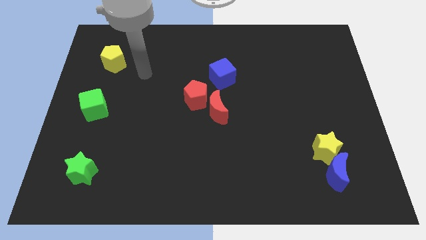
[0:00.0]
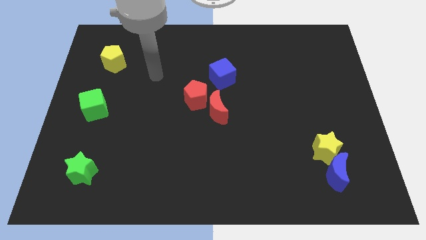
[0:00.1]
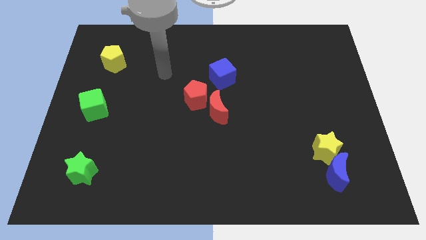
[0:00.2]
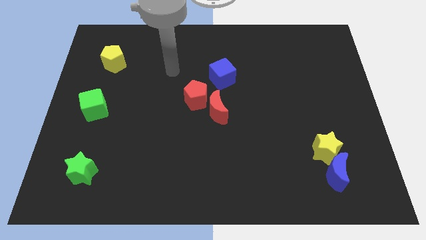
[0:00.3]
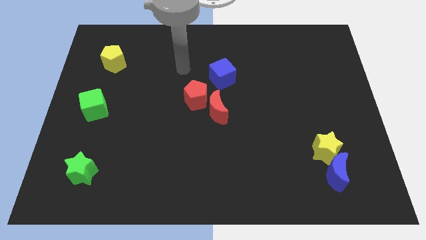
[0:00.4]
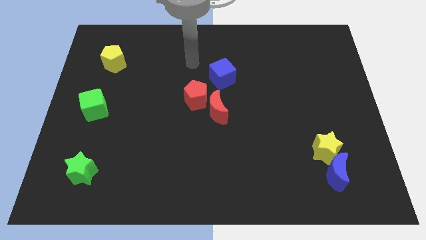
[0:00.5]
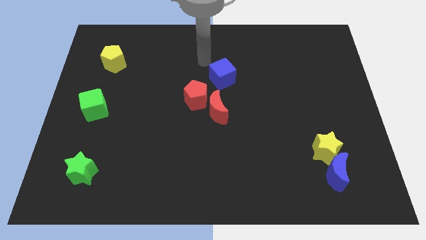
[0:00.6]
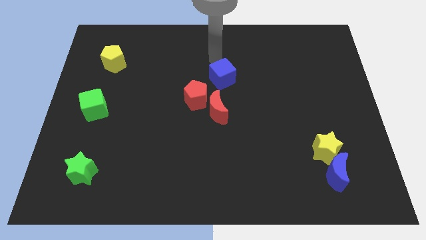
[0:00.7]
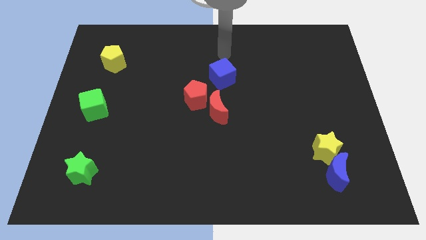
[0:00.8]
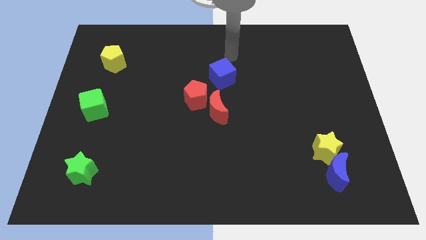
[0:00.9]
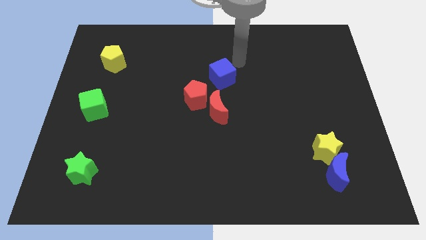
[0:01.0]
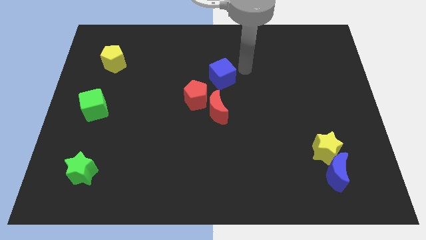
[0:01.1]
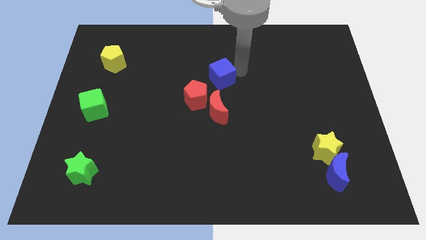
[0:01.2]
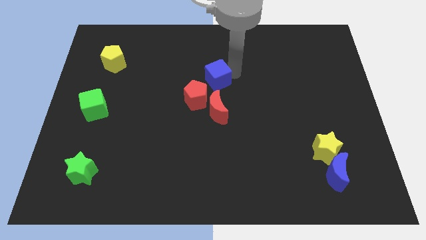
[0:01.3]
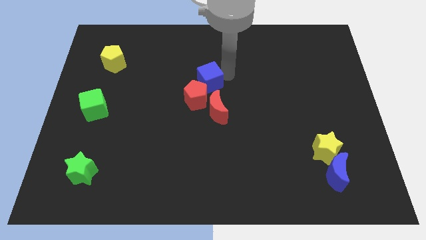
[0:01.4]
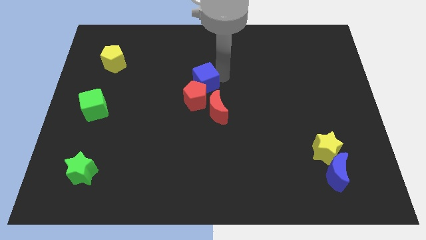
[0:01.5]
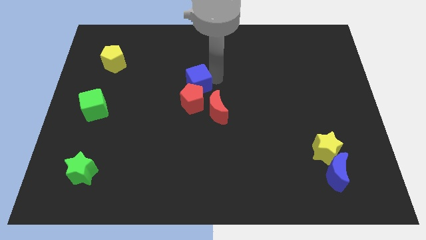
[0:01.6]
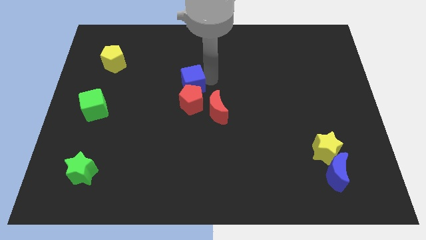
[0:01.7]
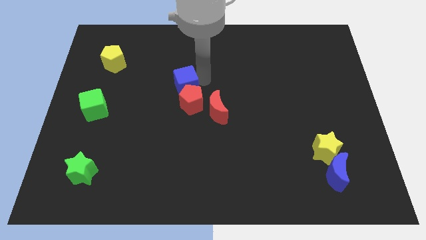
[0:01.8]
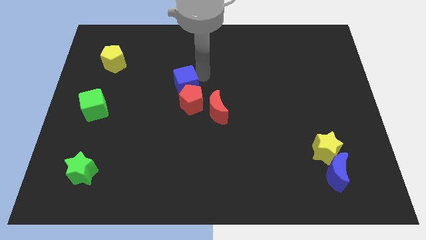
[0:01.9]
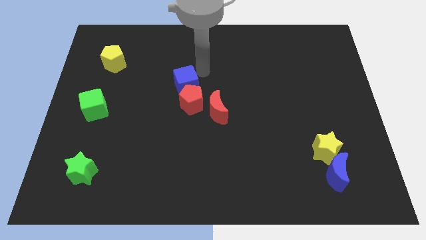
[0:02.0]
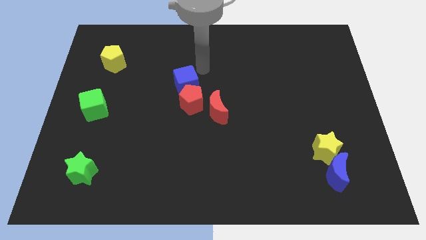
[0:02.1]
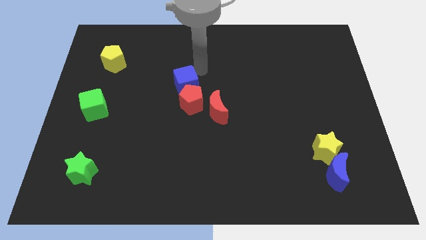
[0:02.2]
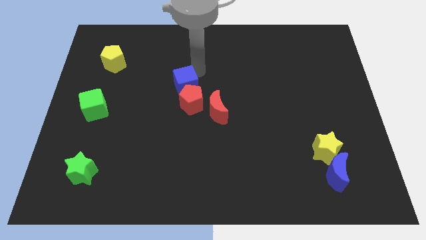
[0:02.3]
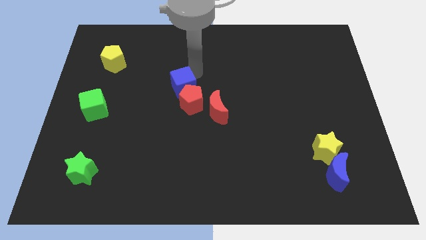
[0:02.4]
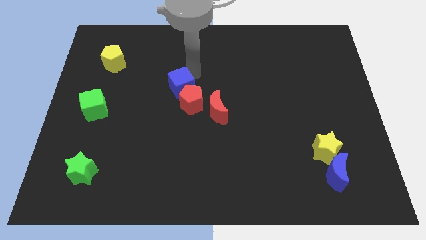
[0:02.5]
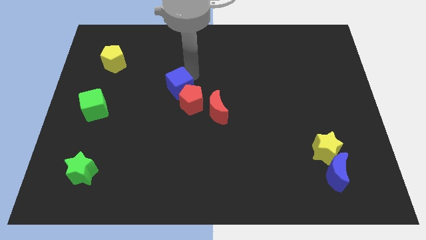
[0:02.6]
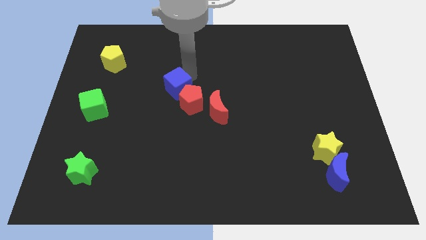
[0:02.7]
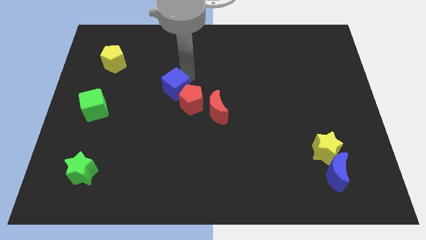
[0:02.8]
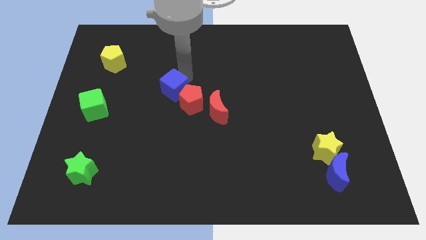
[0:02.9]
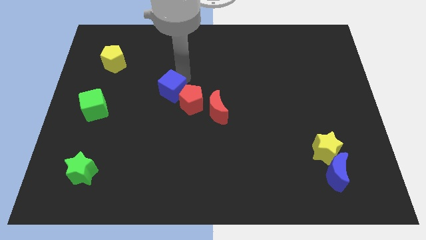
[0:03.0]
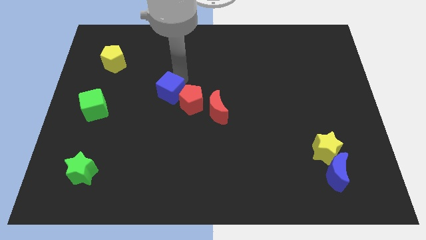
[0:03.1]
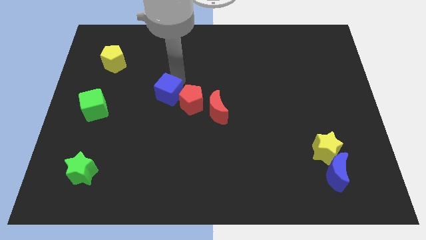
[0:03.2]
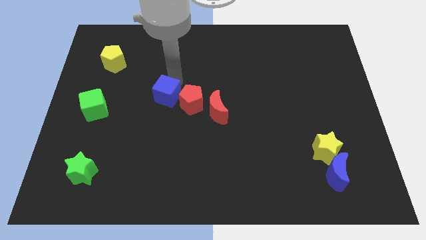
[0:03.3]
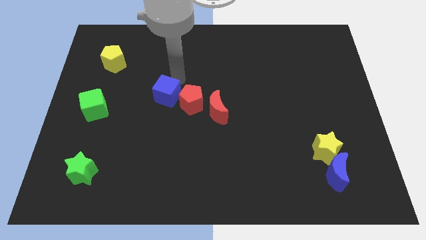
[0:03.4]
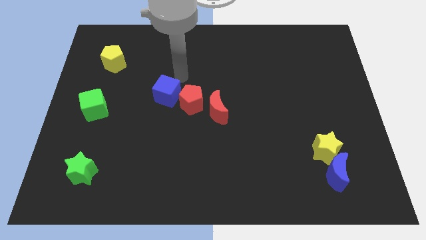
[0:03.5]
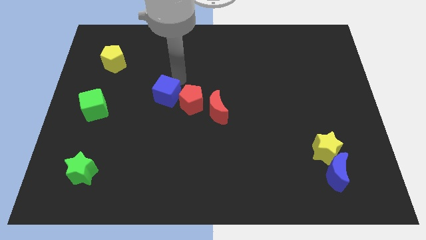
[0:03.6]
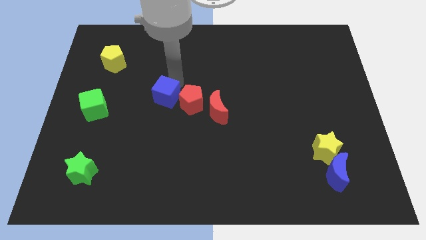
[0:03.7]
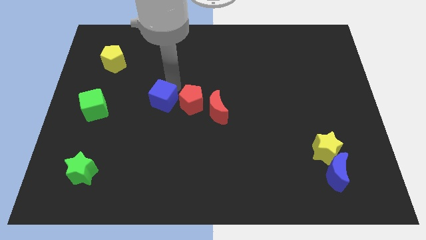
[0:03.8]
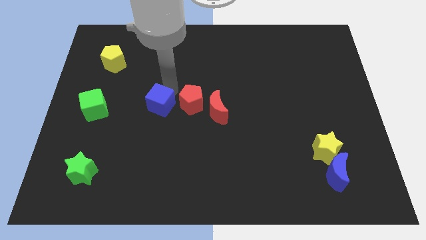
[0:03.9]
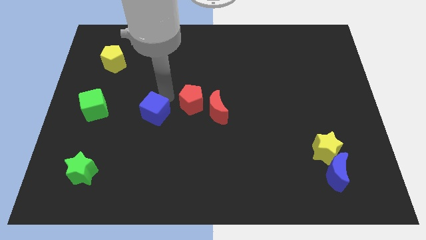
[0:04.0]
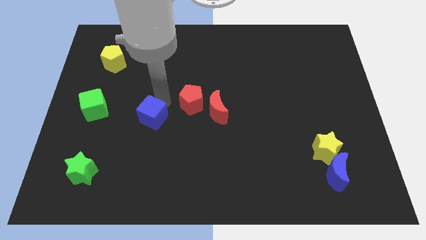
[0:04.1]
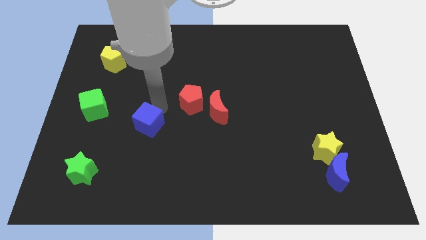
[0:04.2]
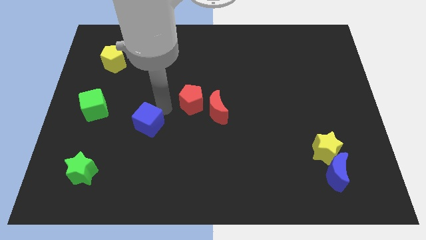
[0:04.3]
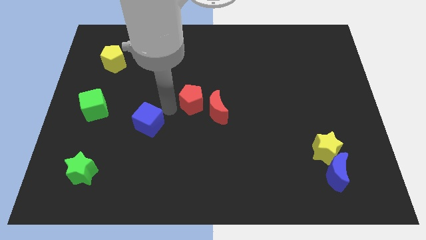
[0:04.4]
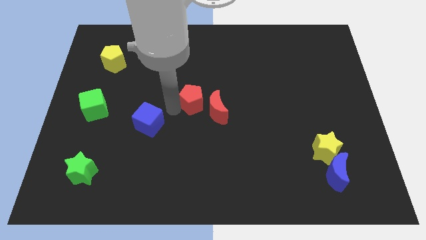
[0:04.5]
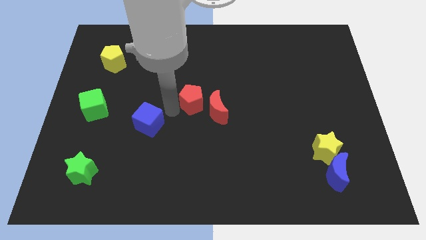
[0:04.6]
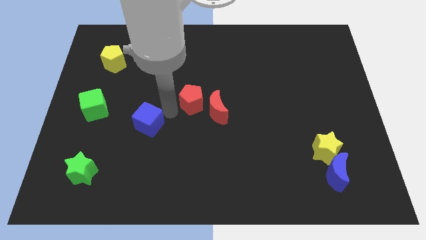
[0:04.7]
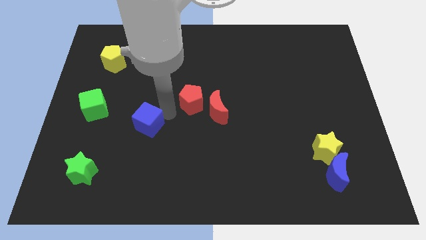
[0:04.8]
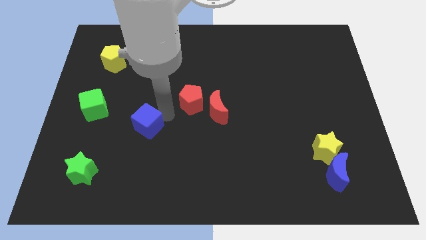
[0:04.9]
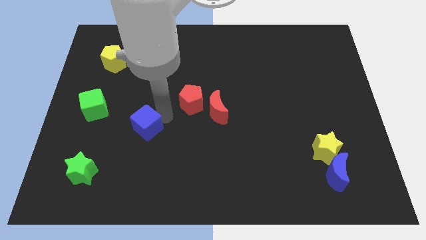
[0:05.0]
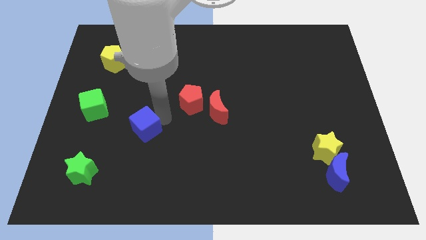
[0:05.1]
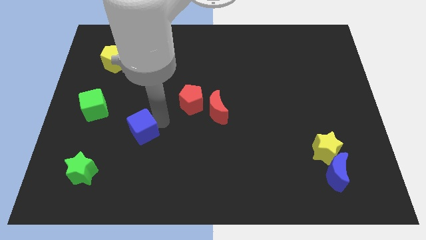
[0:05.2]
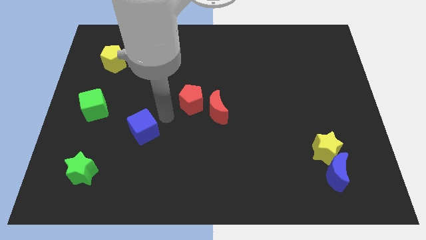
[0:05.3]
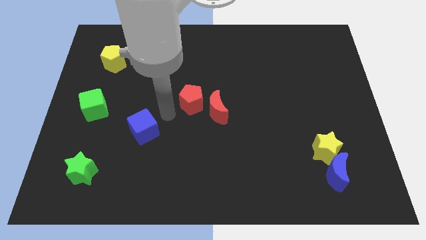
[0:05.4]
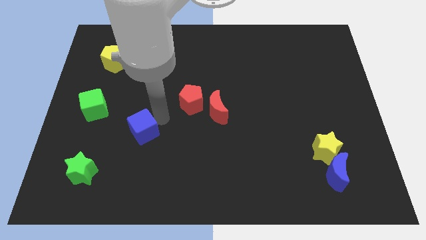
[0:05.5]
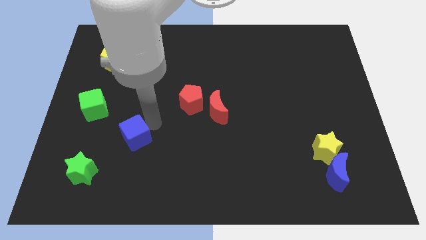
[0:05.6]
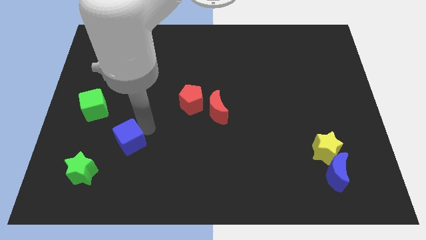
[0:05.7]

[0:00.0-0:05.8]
slide the blue cube diagonally up and to the right of the green star
